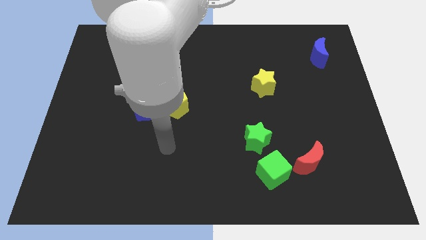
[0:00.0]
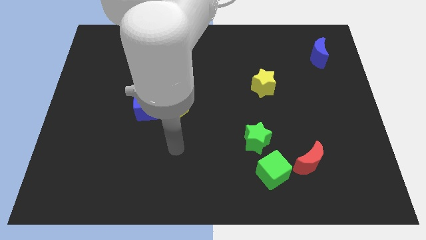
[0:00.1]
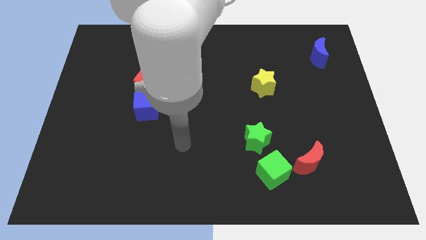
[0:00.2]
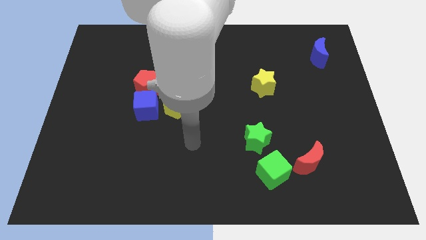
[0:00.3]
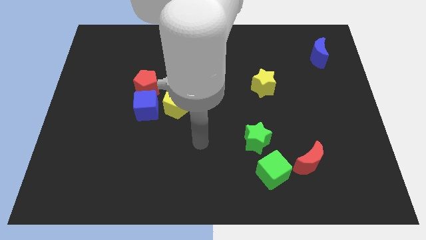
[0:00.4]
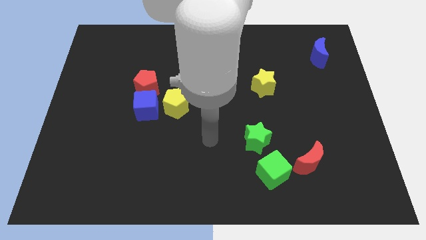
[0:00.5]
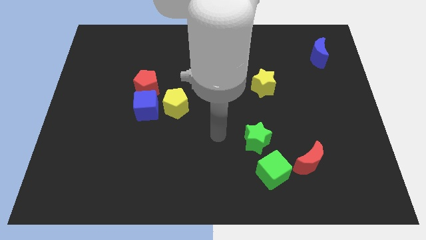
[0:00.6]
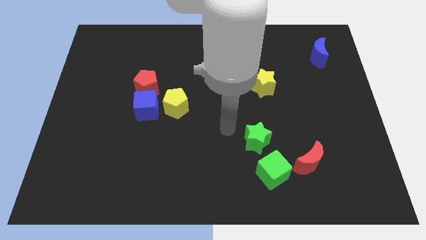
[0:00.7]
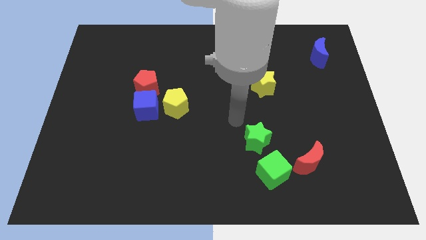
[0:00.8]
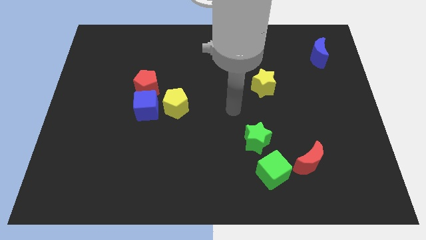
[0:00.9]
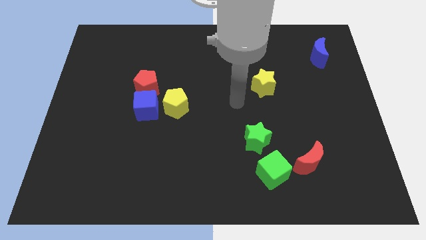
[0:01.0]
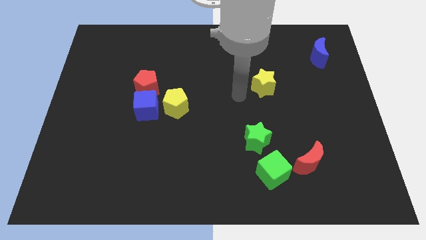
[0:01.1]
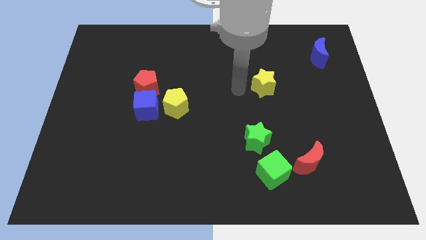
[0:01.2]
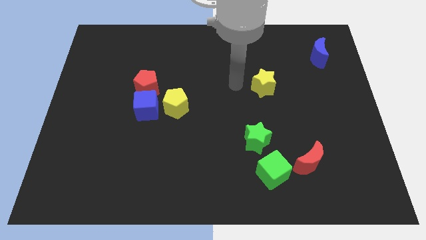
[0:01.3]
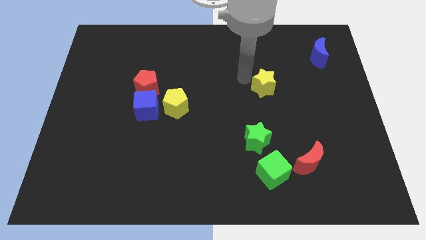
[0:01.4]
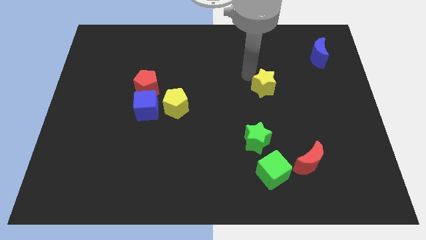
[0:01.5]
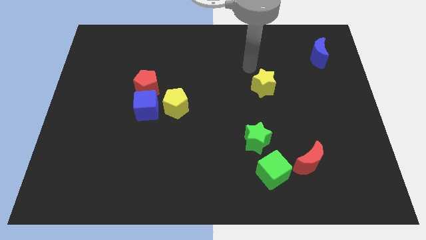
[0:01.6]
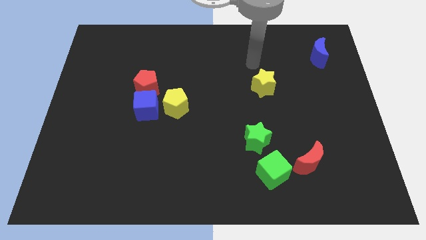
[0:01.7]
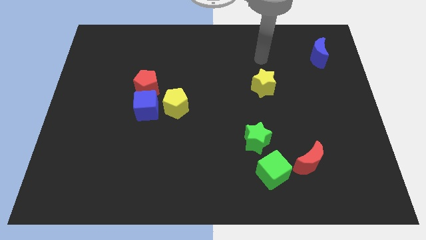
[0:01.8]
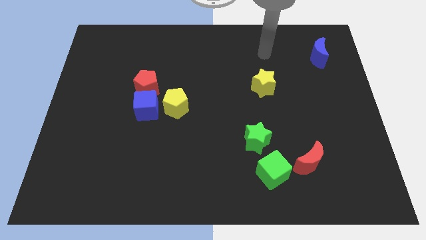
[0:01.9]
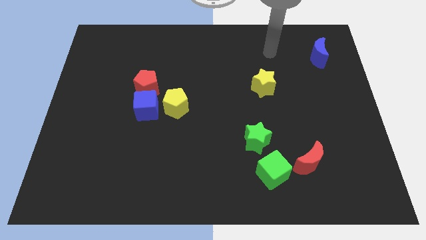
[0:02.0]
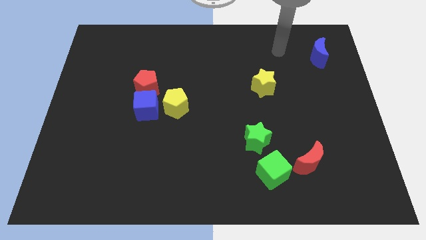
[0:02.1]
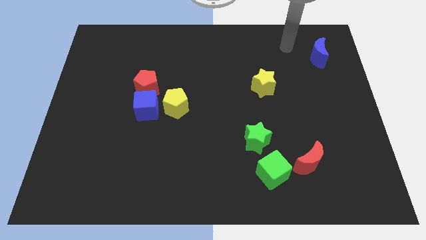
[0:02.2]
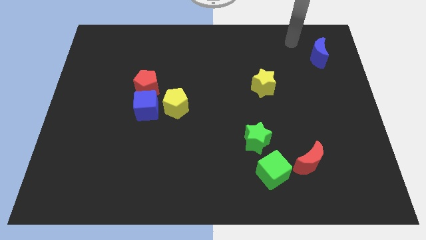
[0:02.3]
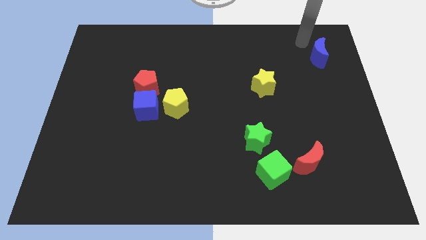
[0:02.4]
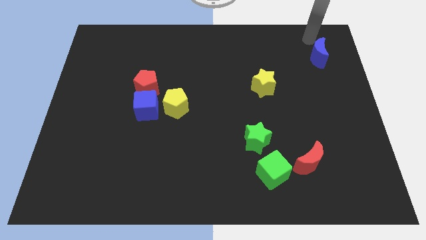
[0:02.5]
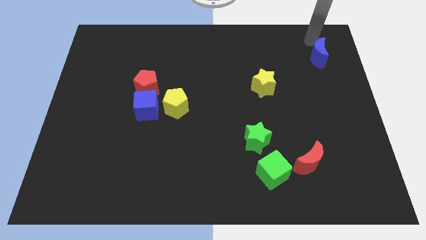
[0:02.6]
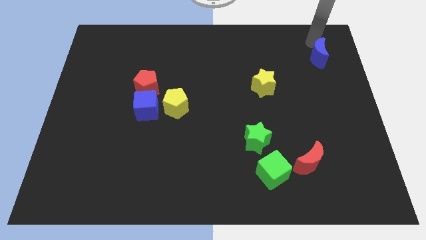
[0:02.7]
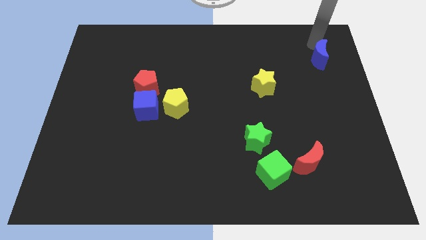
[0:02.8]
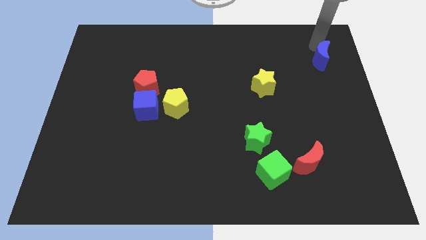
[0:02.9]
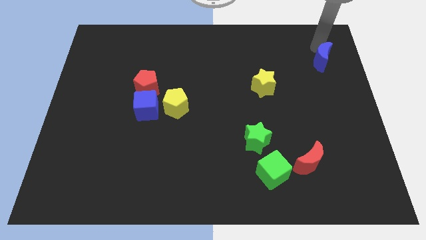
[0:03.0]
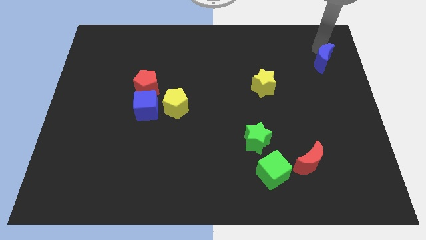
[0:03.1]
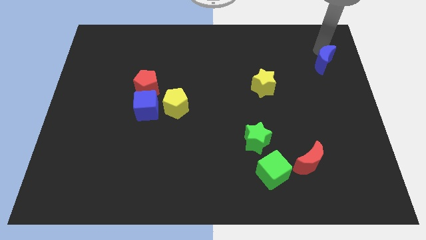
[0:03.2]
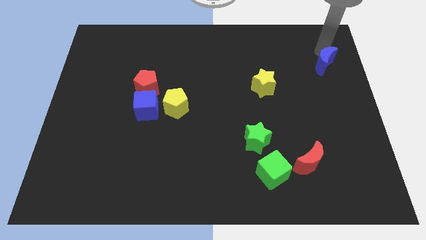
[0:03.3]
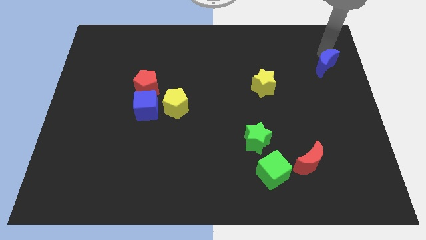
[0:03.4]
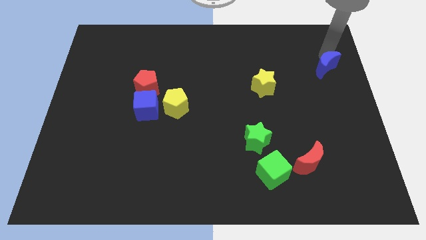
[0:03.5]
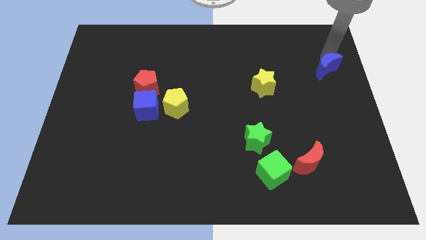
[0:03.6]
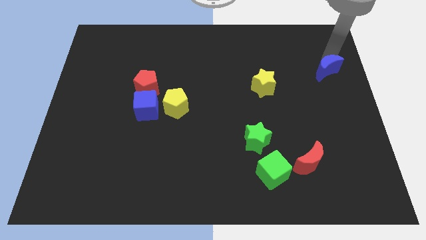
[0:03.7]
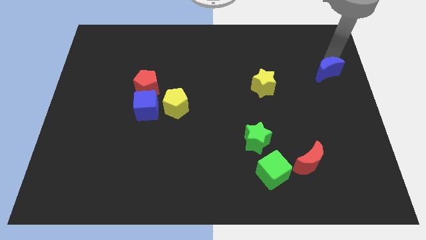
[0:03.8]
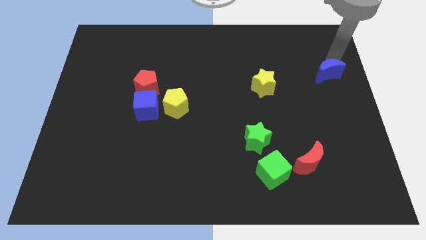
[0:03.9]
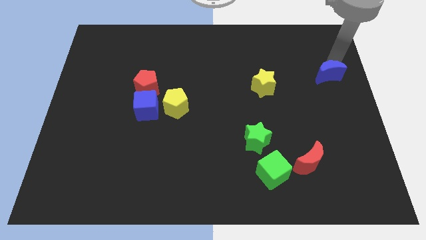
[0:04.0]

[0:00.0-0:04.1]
slide the blue moon downwards slightly

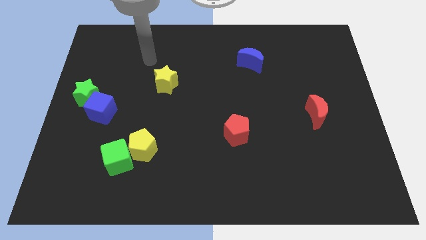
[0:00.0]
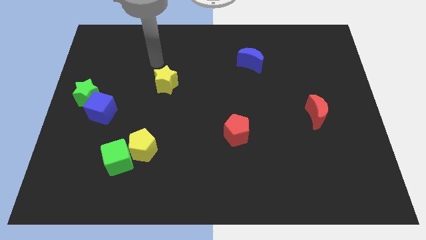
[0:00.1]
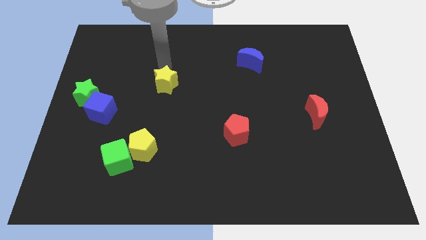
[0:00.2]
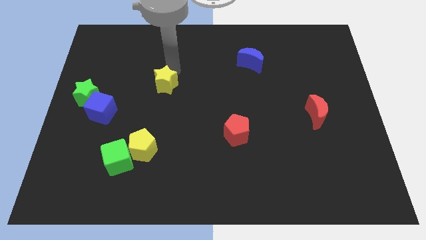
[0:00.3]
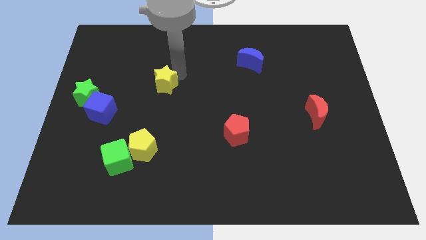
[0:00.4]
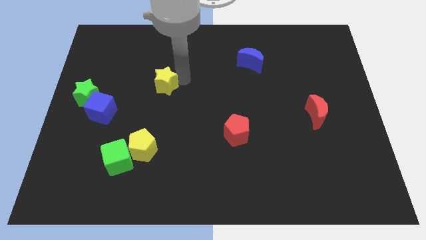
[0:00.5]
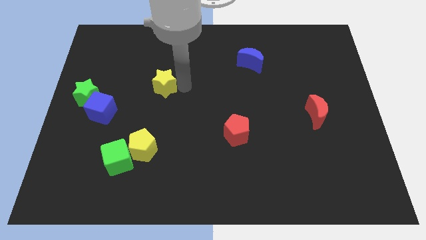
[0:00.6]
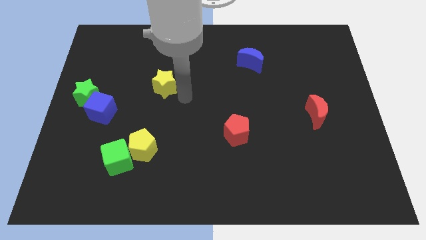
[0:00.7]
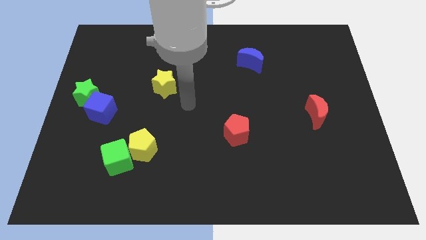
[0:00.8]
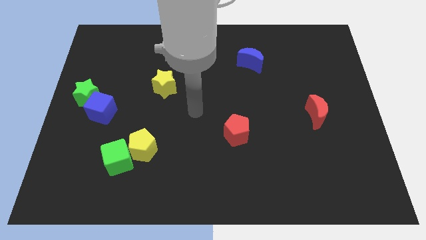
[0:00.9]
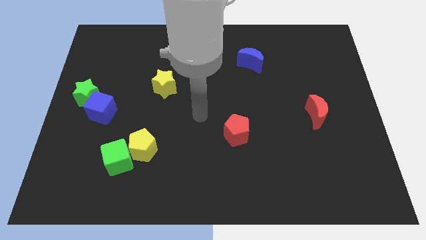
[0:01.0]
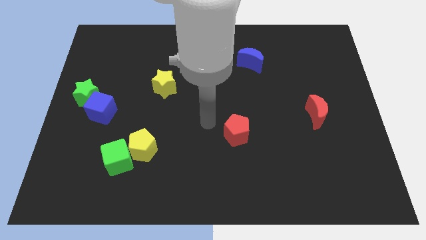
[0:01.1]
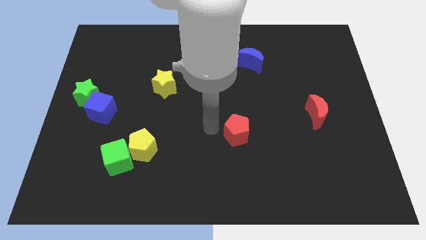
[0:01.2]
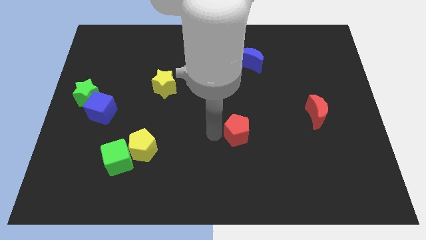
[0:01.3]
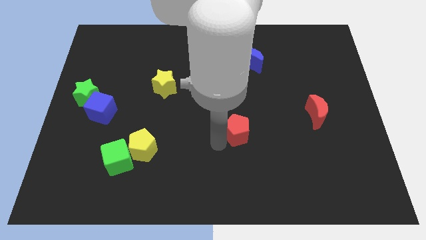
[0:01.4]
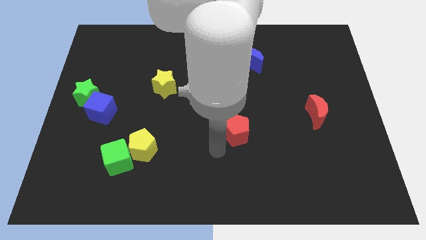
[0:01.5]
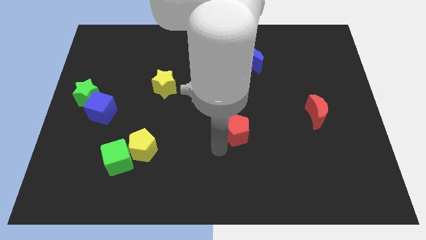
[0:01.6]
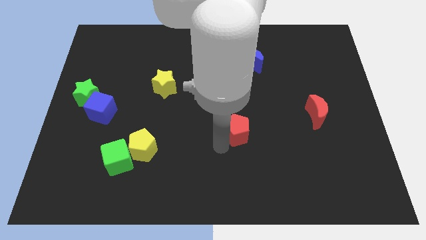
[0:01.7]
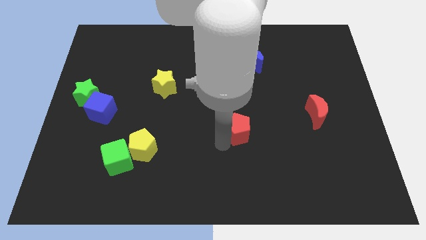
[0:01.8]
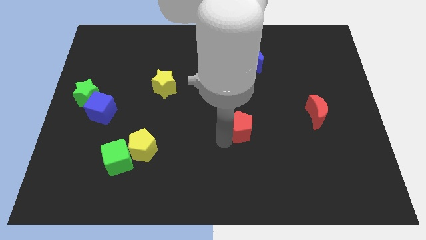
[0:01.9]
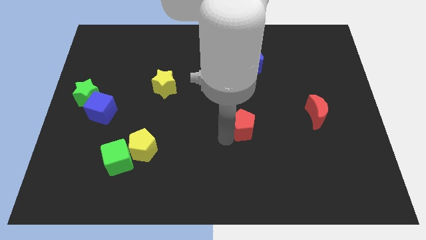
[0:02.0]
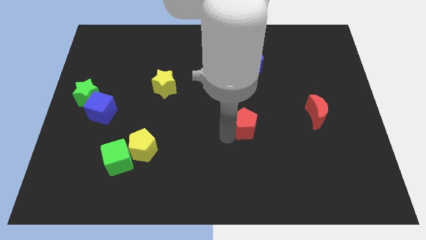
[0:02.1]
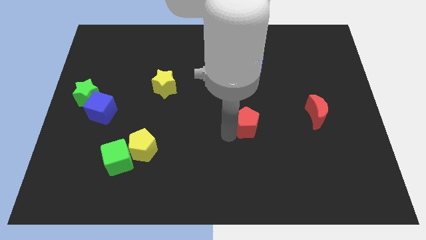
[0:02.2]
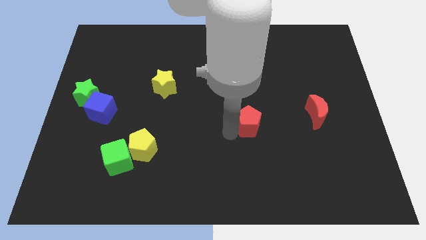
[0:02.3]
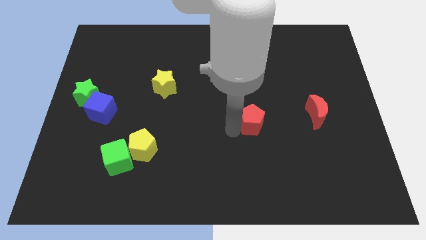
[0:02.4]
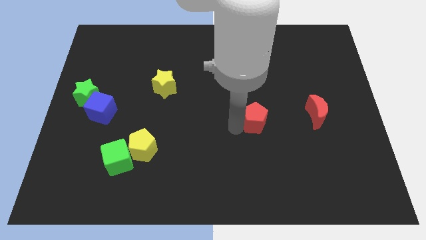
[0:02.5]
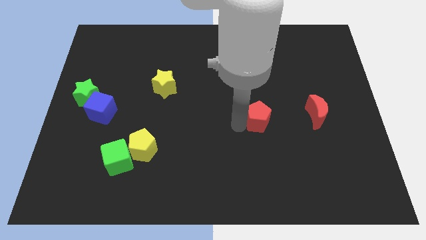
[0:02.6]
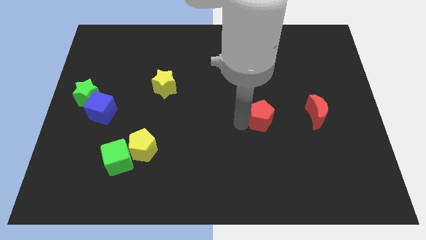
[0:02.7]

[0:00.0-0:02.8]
push the red pentagon up and then to the right a little

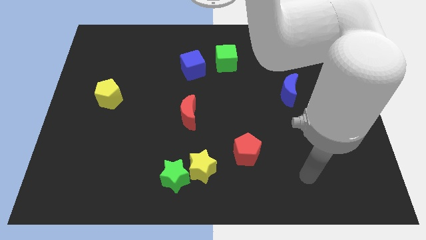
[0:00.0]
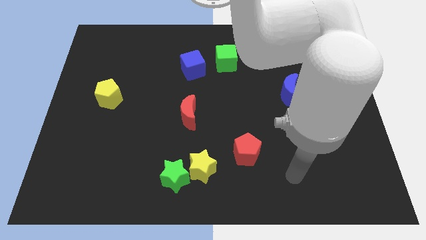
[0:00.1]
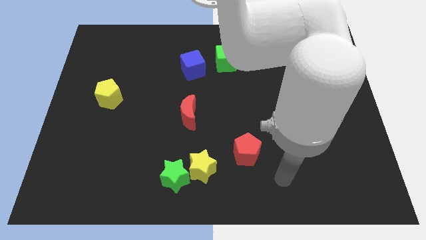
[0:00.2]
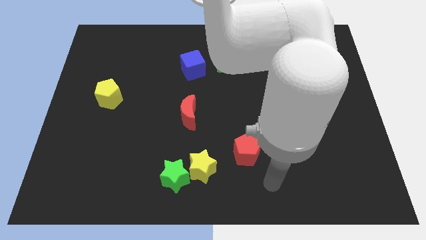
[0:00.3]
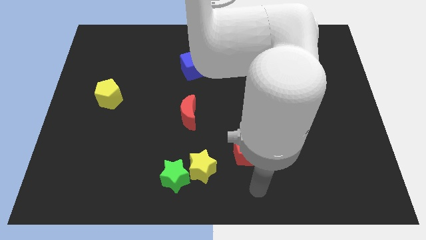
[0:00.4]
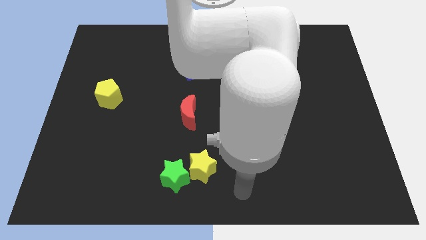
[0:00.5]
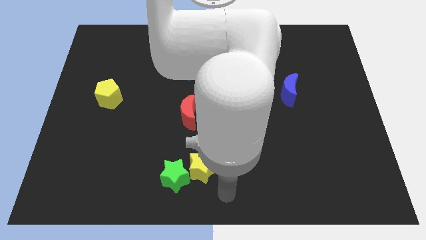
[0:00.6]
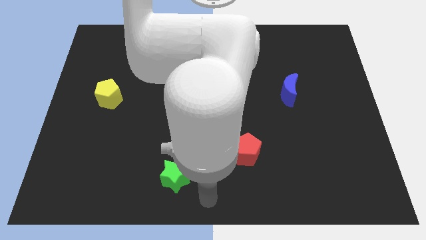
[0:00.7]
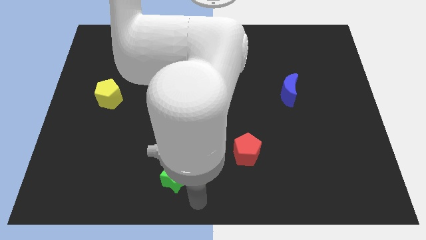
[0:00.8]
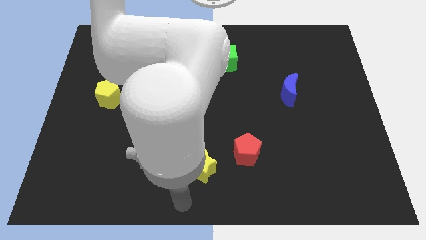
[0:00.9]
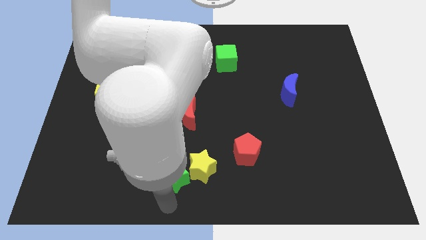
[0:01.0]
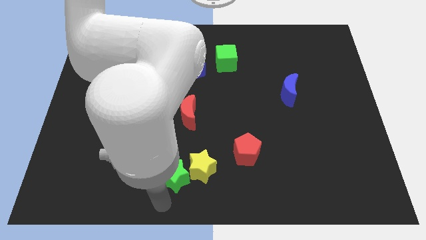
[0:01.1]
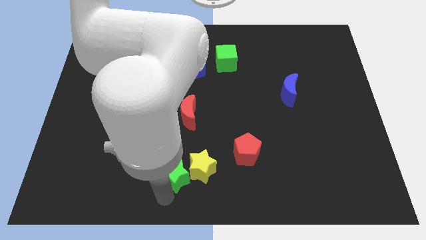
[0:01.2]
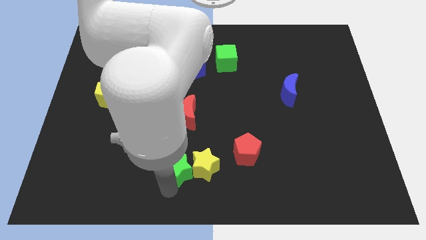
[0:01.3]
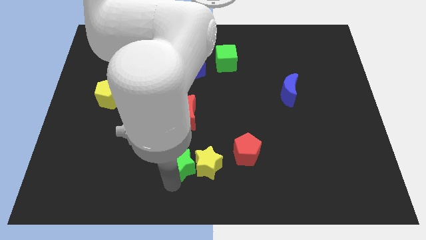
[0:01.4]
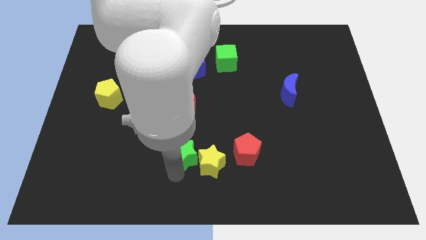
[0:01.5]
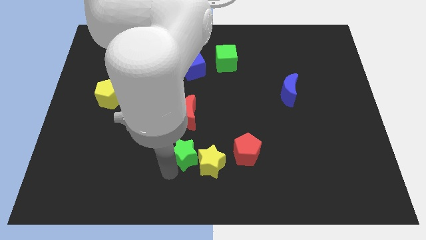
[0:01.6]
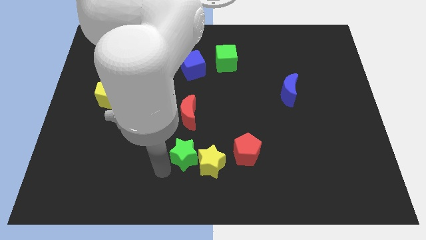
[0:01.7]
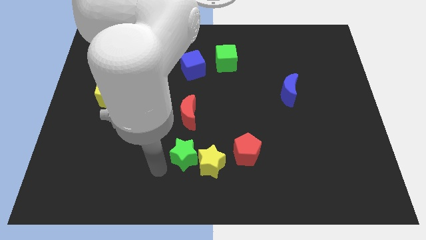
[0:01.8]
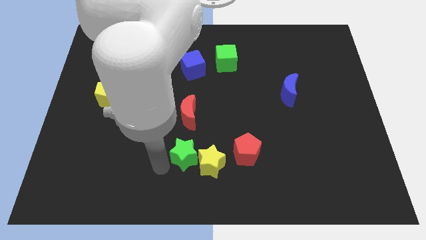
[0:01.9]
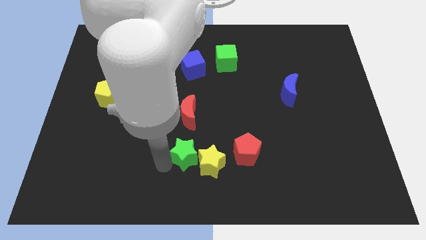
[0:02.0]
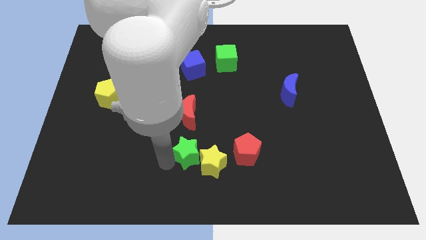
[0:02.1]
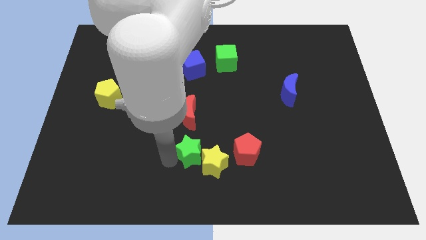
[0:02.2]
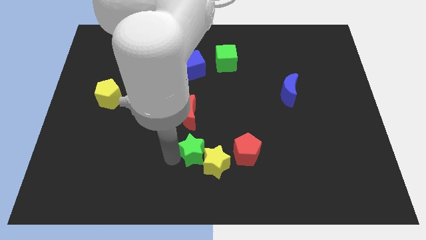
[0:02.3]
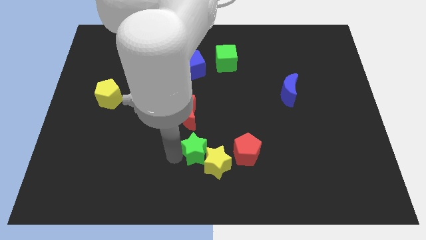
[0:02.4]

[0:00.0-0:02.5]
slightly move the green star upwards and to the right
